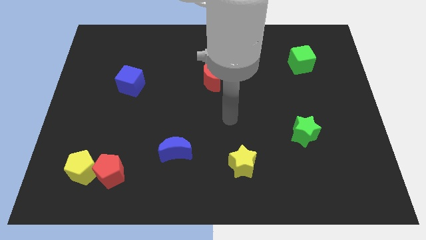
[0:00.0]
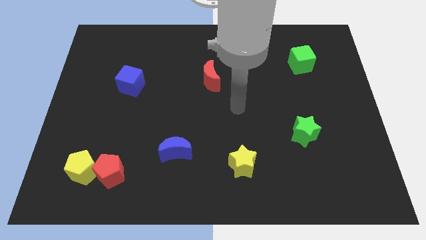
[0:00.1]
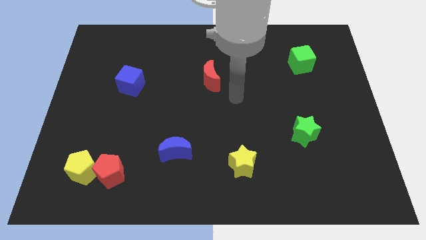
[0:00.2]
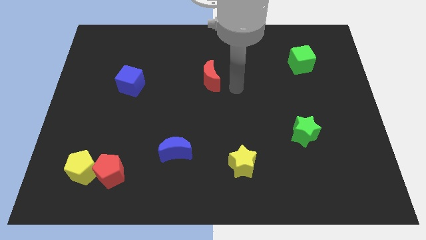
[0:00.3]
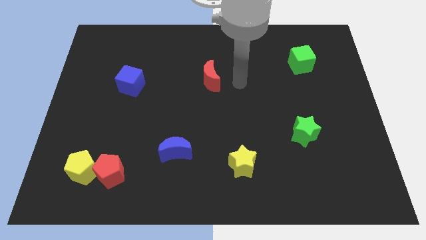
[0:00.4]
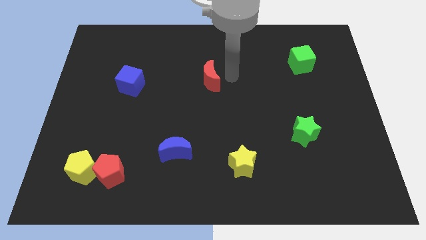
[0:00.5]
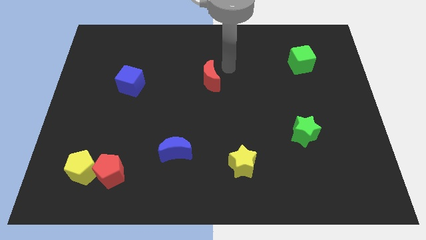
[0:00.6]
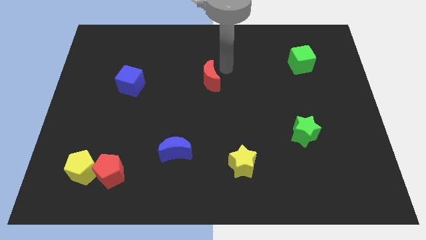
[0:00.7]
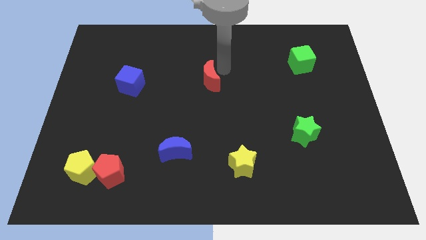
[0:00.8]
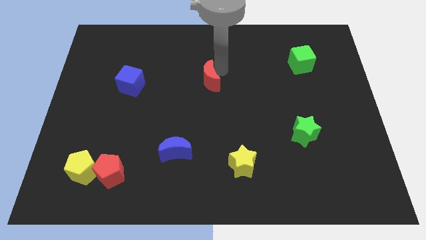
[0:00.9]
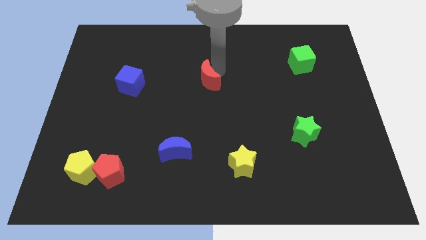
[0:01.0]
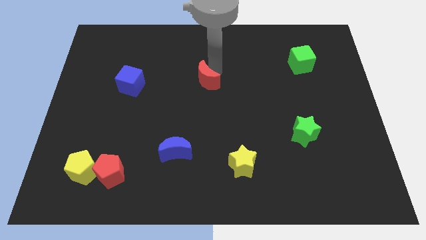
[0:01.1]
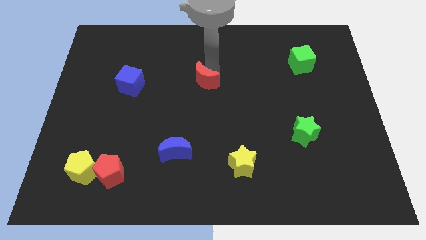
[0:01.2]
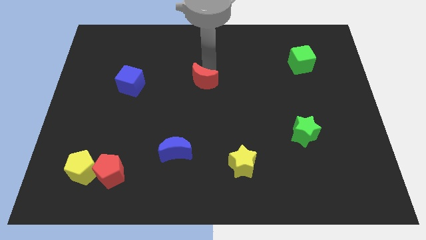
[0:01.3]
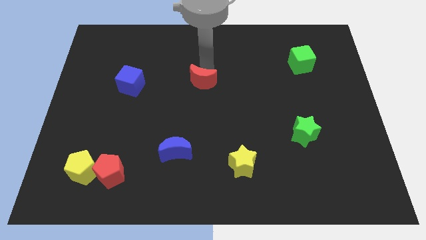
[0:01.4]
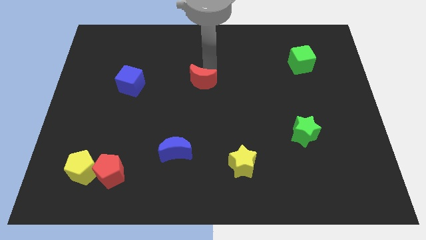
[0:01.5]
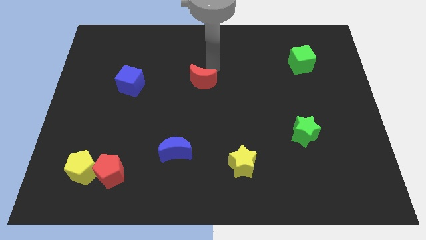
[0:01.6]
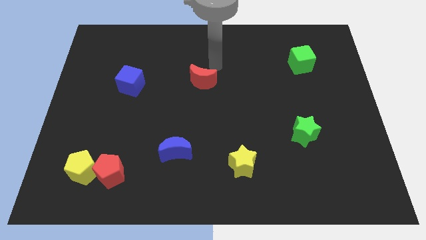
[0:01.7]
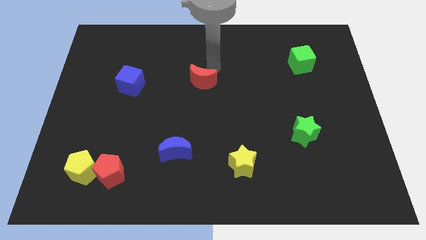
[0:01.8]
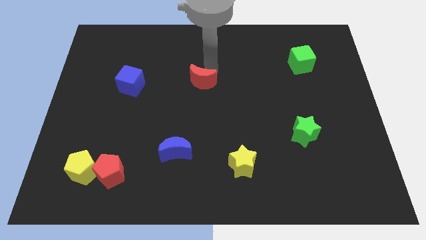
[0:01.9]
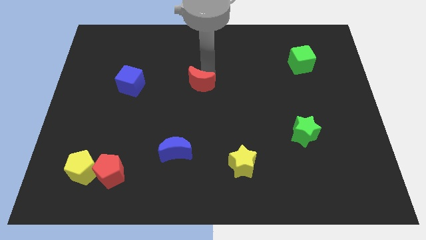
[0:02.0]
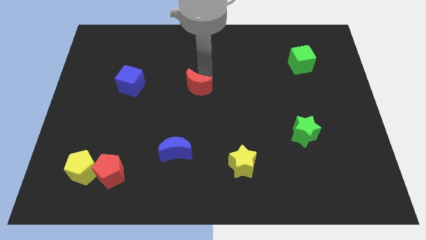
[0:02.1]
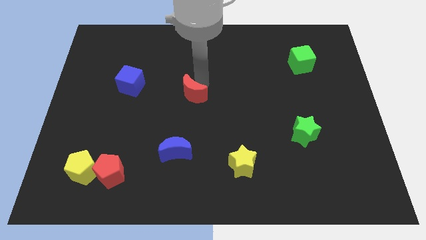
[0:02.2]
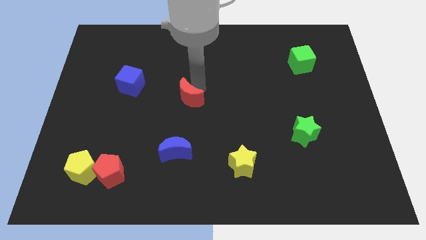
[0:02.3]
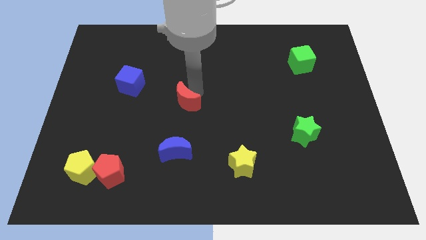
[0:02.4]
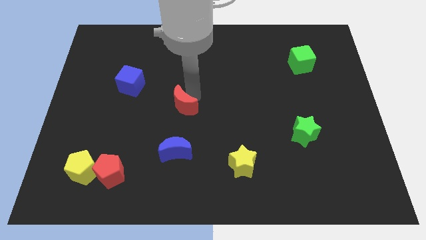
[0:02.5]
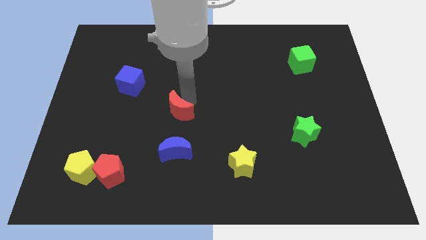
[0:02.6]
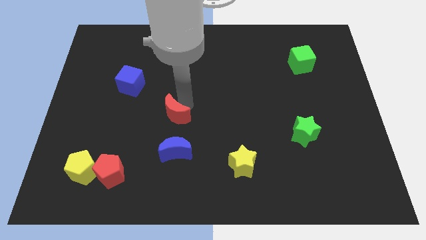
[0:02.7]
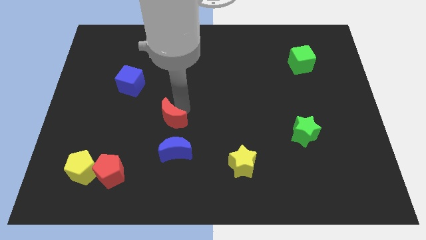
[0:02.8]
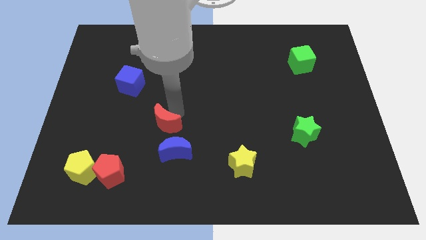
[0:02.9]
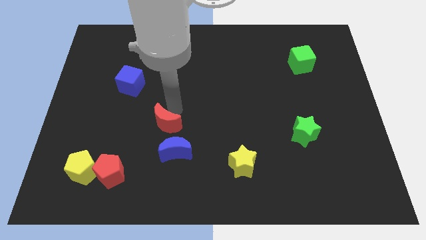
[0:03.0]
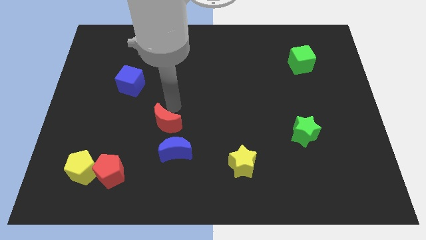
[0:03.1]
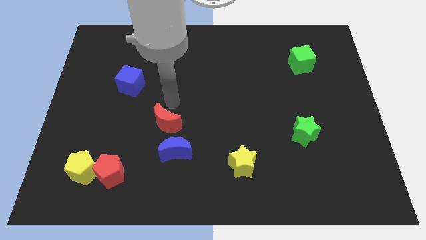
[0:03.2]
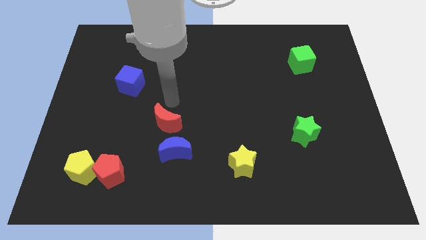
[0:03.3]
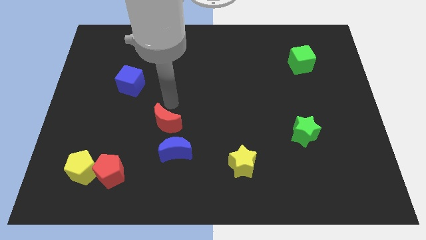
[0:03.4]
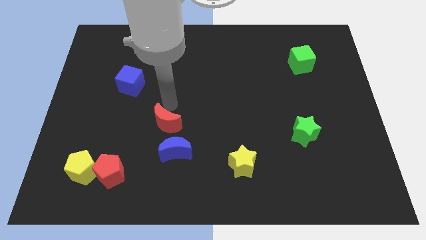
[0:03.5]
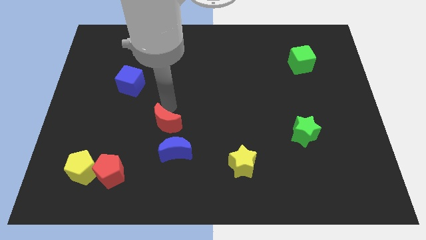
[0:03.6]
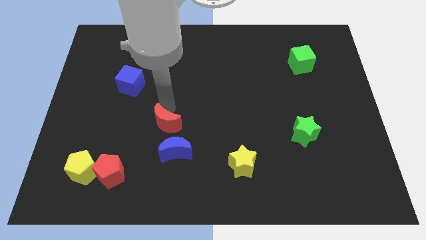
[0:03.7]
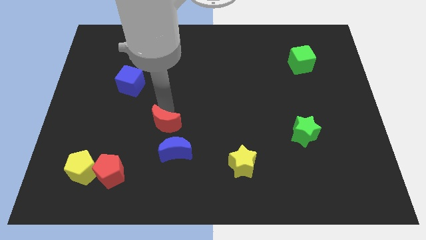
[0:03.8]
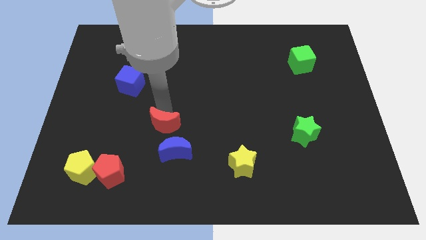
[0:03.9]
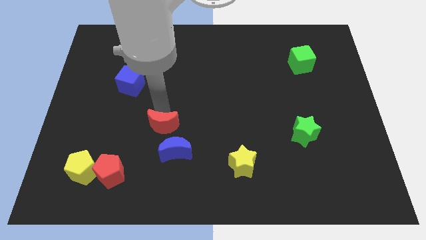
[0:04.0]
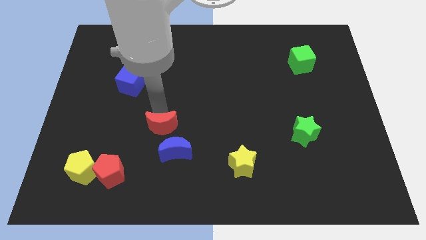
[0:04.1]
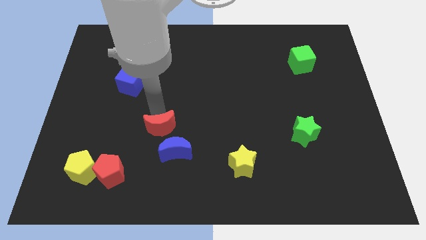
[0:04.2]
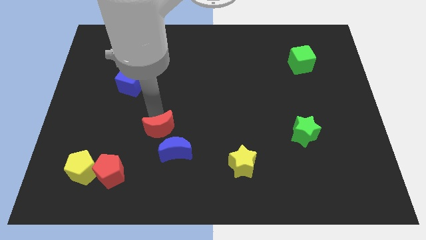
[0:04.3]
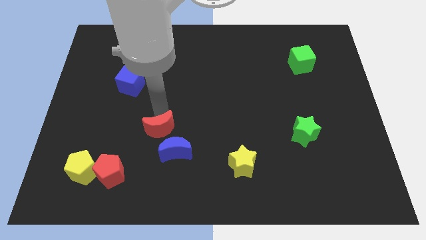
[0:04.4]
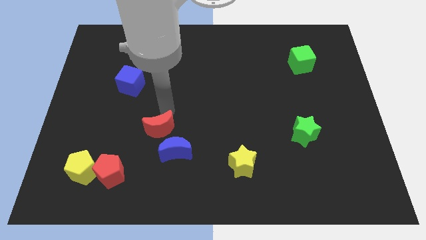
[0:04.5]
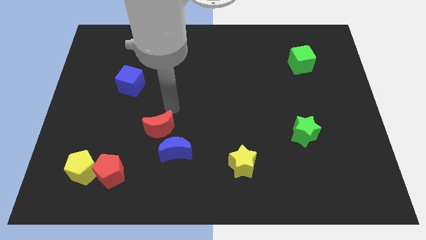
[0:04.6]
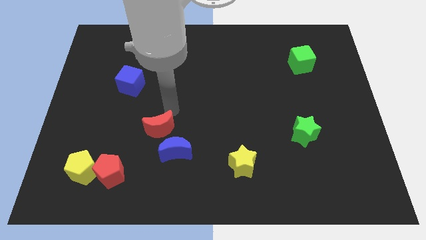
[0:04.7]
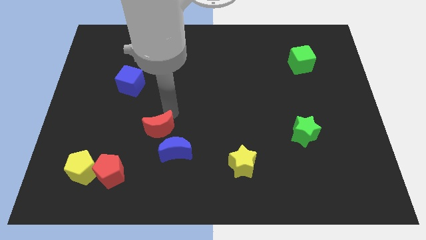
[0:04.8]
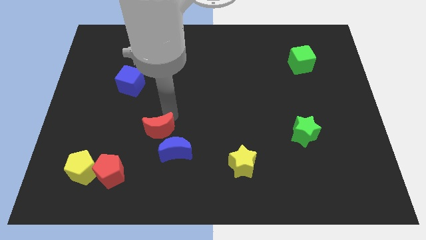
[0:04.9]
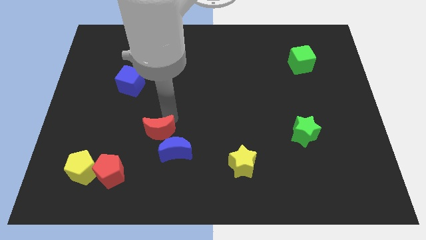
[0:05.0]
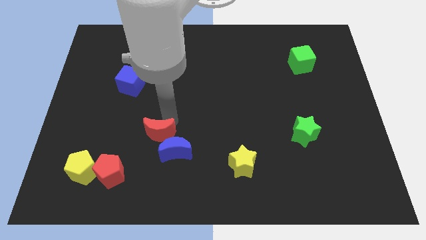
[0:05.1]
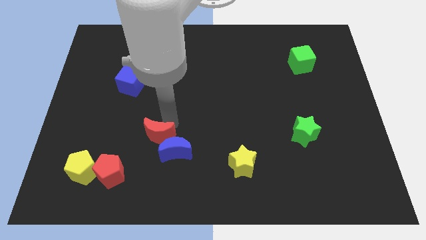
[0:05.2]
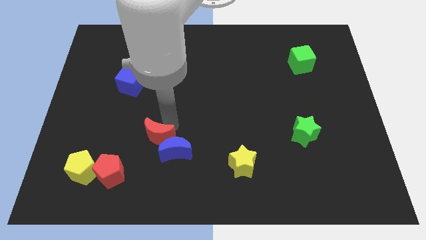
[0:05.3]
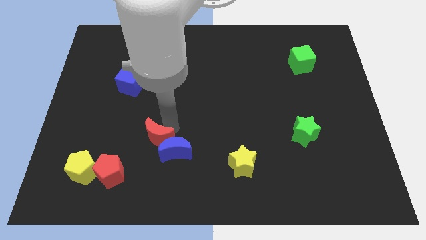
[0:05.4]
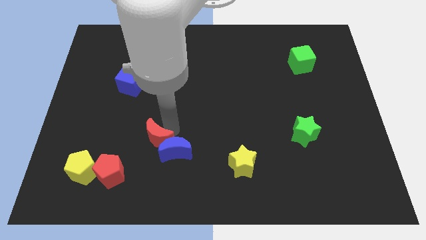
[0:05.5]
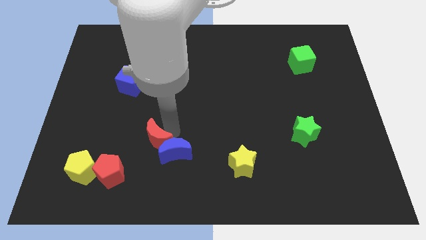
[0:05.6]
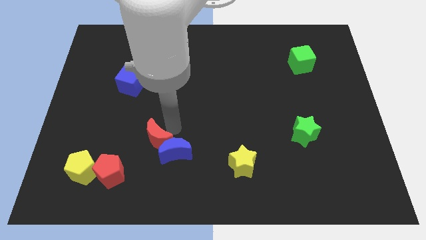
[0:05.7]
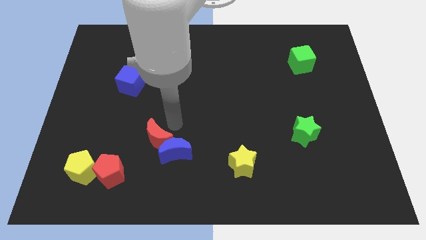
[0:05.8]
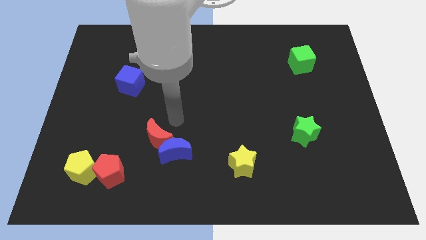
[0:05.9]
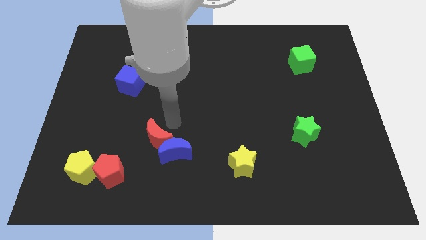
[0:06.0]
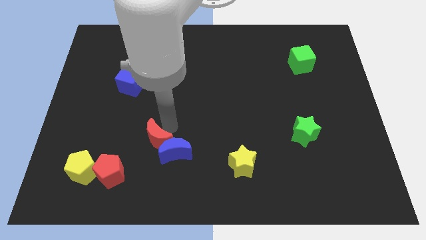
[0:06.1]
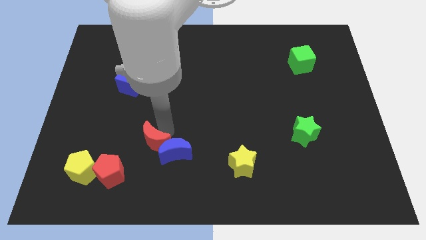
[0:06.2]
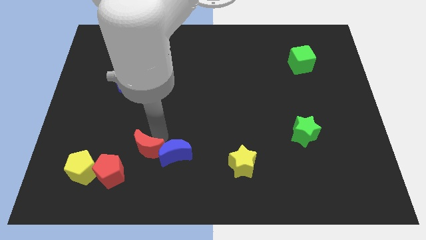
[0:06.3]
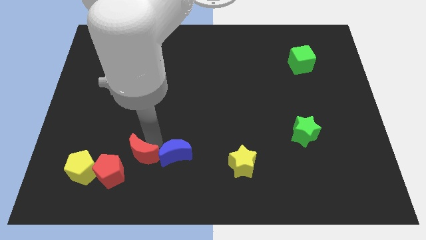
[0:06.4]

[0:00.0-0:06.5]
move the red moon right of the yellow pentagon
